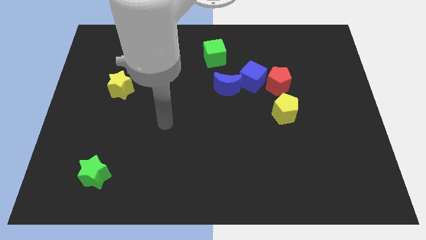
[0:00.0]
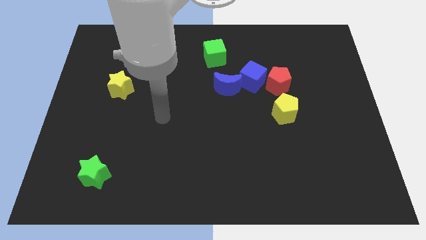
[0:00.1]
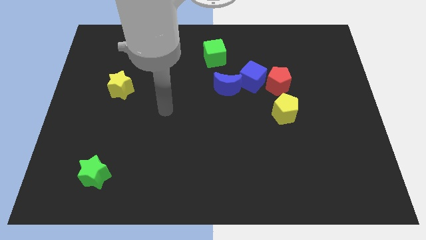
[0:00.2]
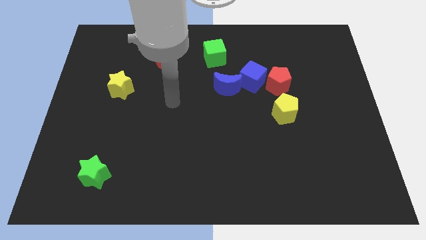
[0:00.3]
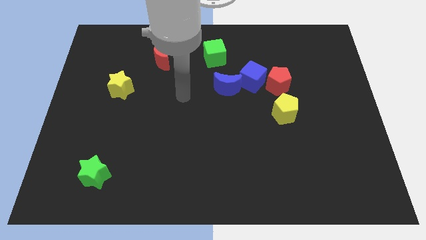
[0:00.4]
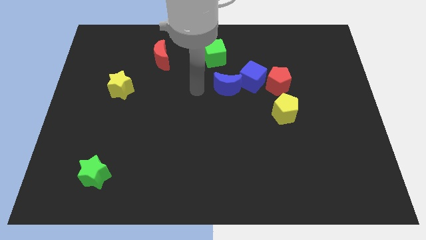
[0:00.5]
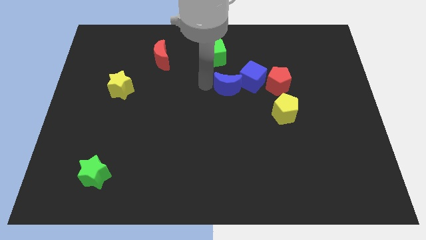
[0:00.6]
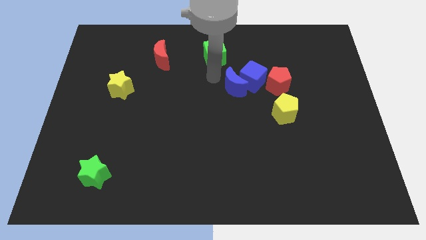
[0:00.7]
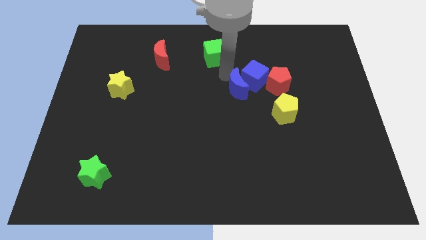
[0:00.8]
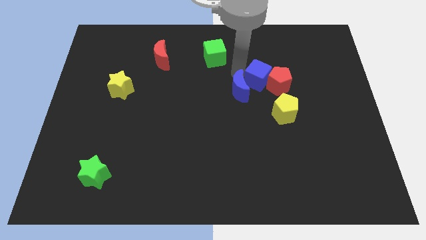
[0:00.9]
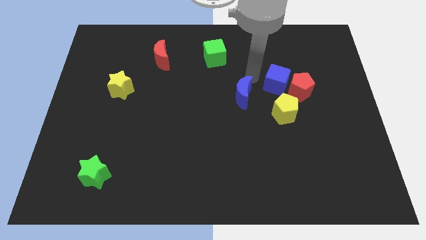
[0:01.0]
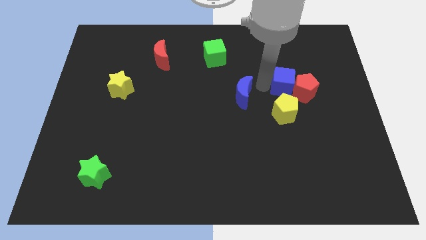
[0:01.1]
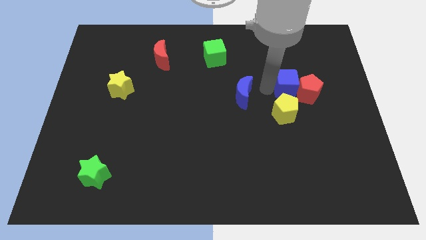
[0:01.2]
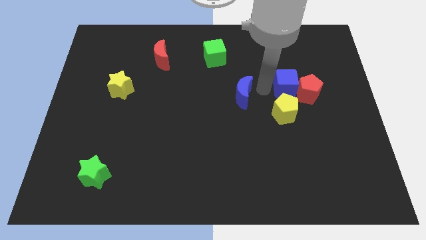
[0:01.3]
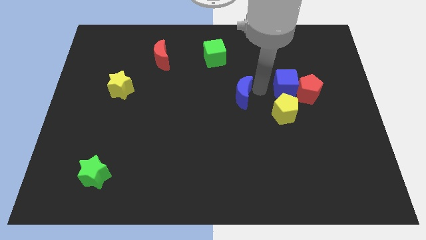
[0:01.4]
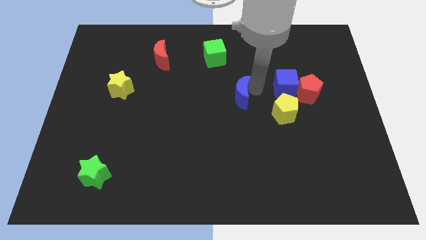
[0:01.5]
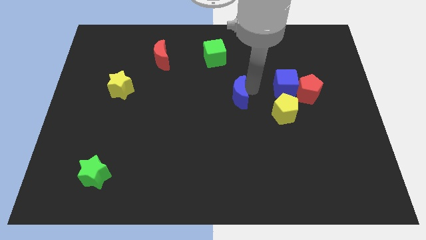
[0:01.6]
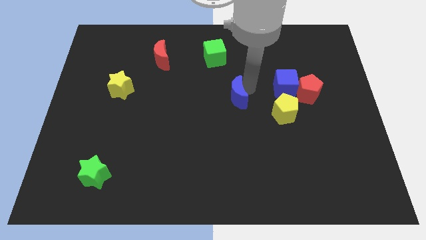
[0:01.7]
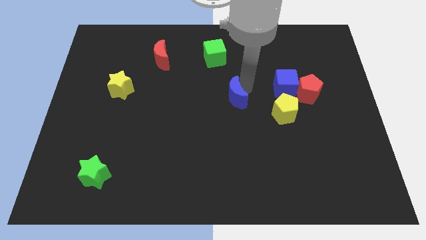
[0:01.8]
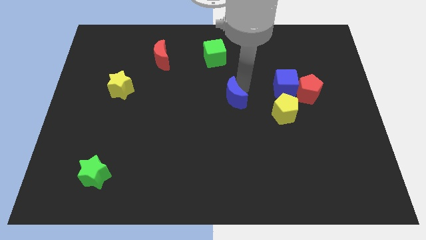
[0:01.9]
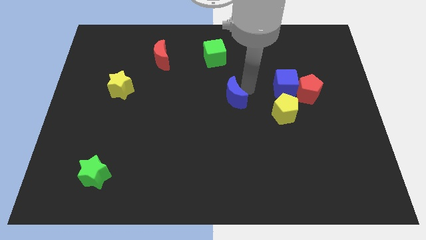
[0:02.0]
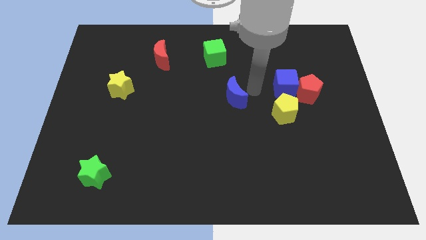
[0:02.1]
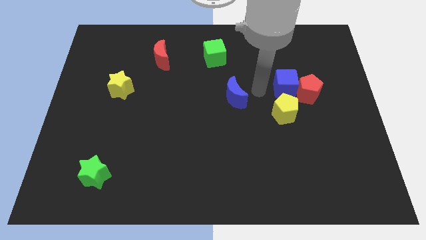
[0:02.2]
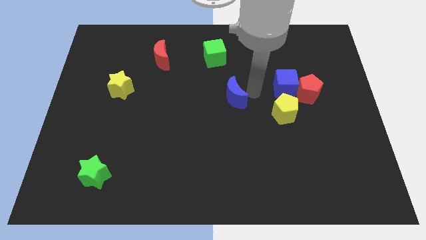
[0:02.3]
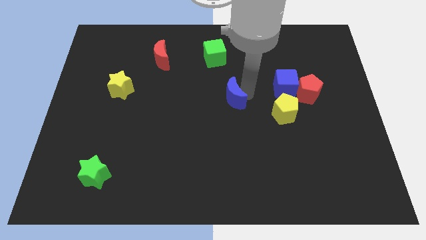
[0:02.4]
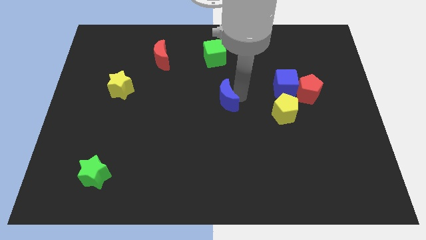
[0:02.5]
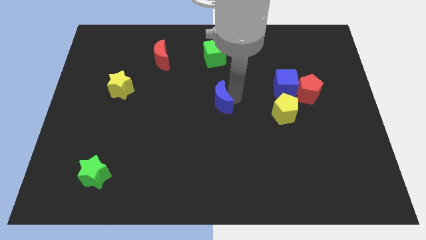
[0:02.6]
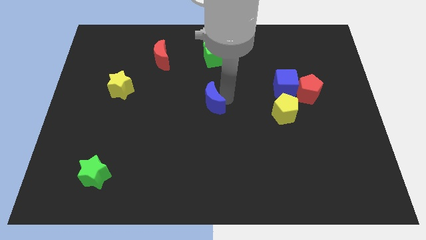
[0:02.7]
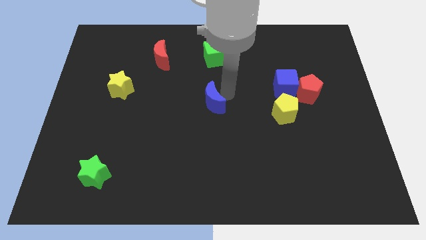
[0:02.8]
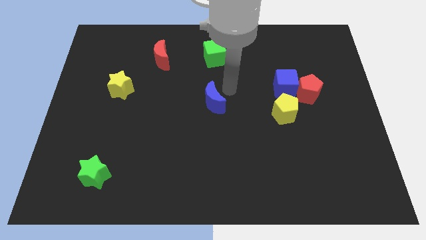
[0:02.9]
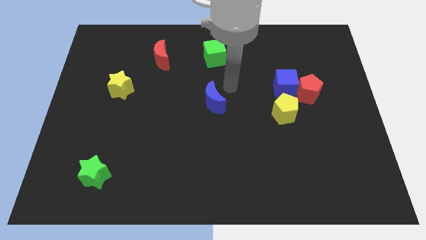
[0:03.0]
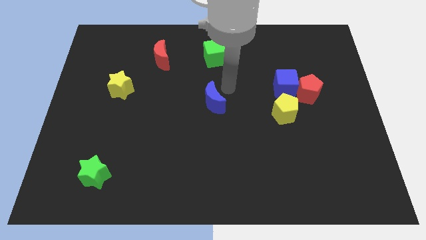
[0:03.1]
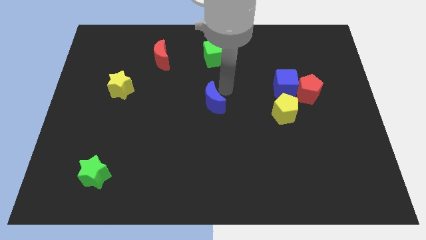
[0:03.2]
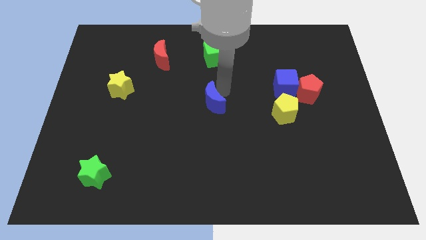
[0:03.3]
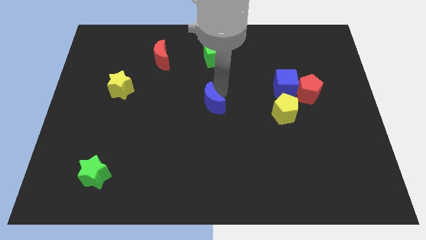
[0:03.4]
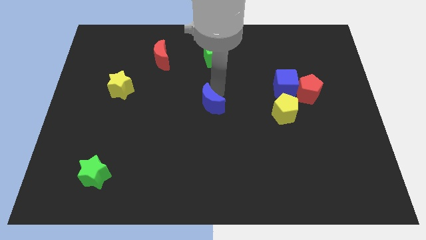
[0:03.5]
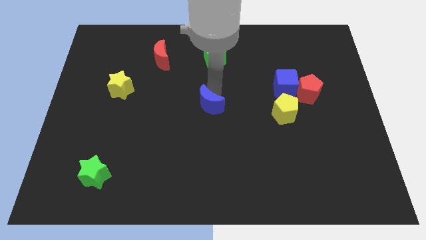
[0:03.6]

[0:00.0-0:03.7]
move the blue moon downwards and left diagonally a little

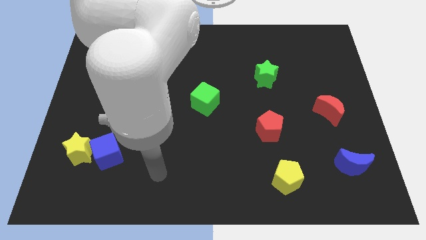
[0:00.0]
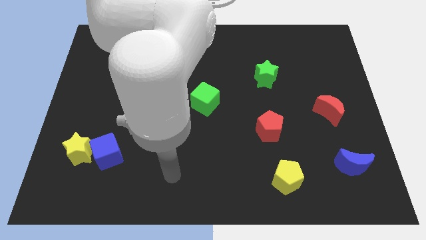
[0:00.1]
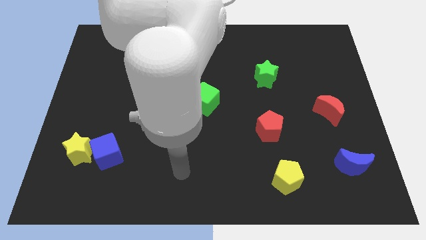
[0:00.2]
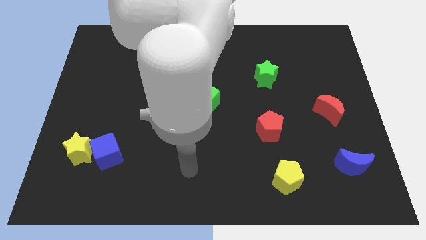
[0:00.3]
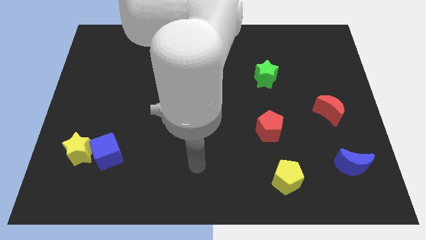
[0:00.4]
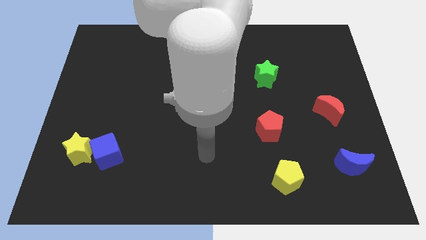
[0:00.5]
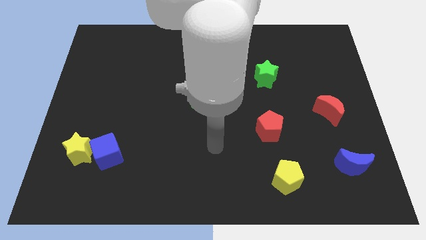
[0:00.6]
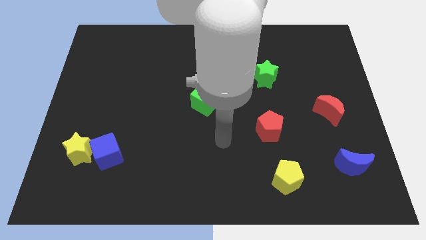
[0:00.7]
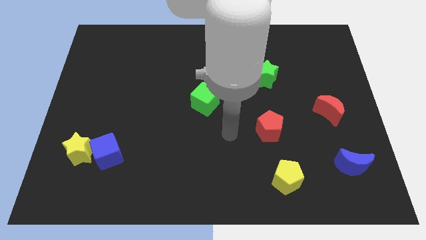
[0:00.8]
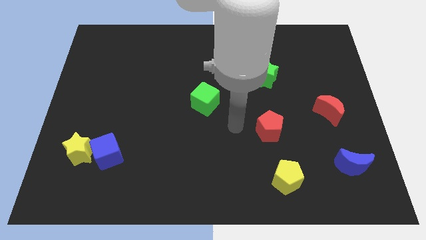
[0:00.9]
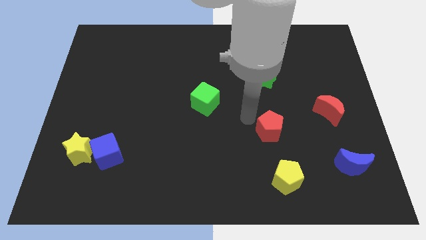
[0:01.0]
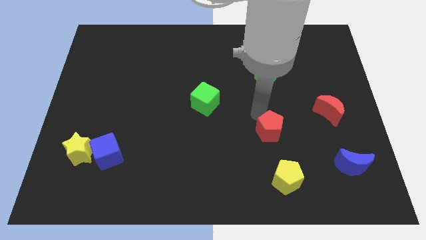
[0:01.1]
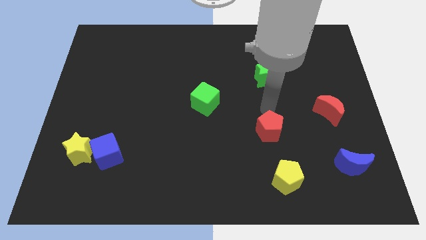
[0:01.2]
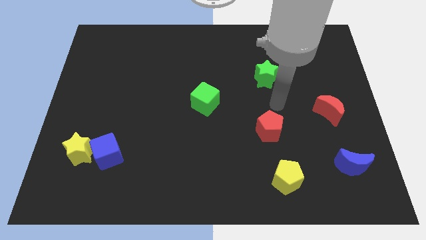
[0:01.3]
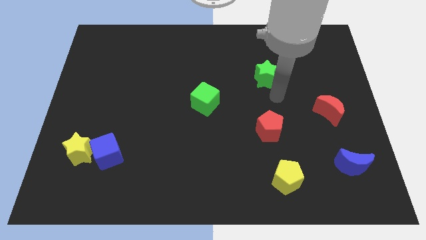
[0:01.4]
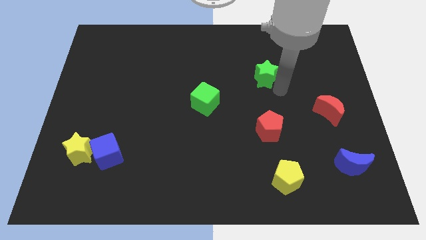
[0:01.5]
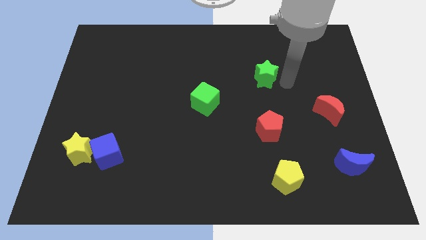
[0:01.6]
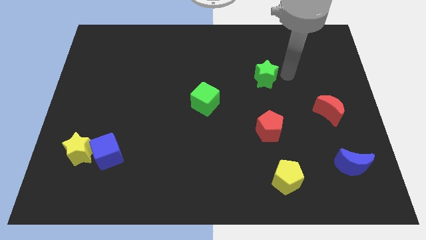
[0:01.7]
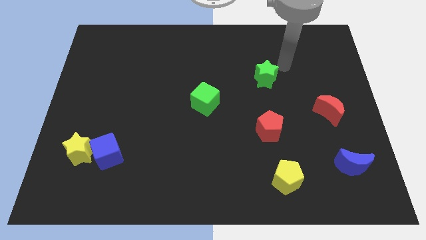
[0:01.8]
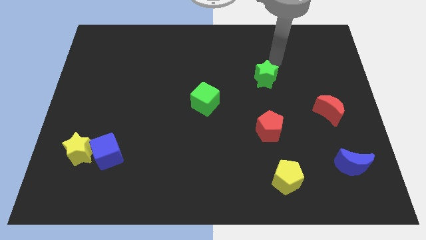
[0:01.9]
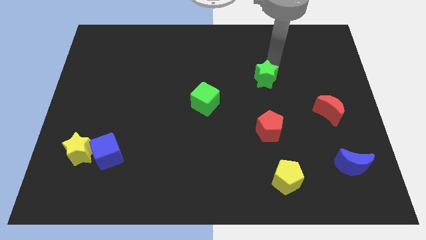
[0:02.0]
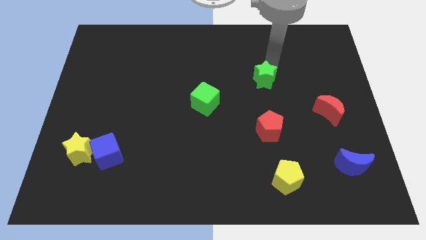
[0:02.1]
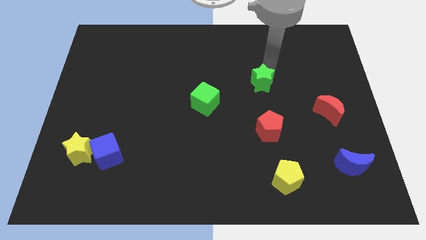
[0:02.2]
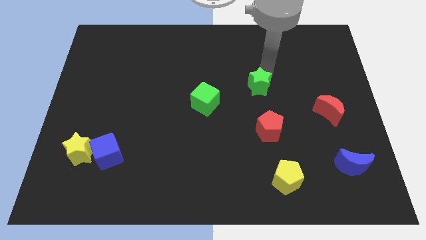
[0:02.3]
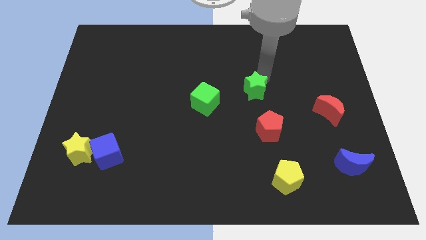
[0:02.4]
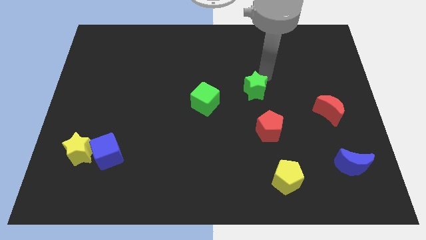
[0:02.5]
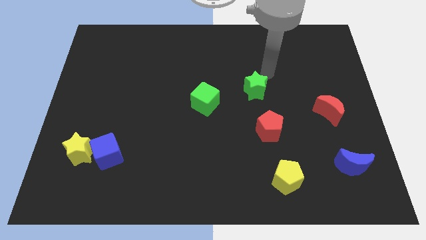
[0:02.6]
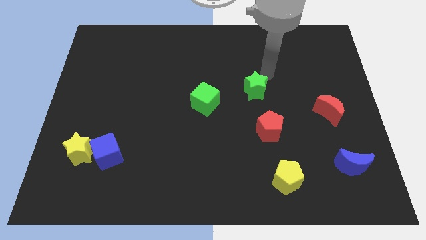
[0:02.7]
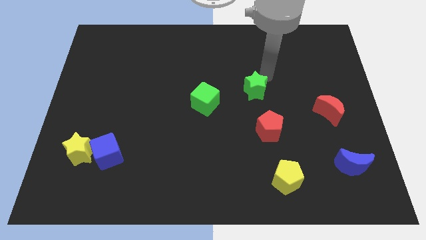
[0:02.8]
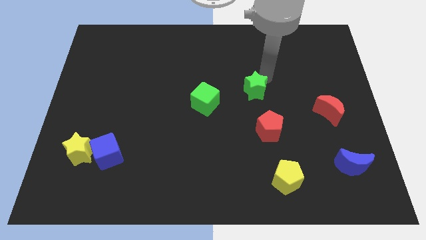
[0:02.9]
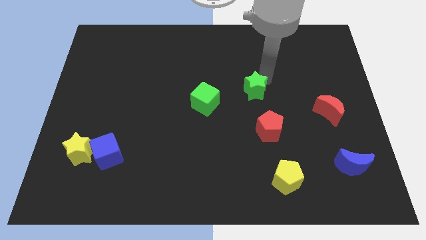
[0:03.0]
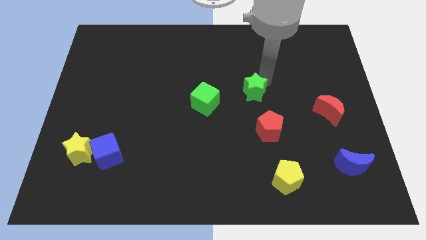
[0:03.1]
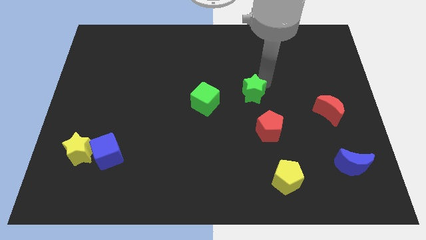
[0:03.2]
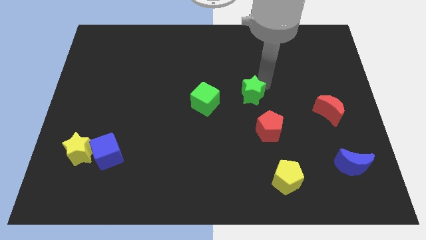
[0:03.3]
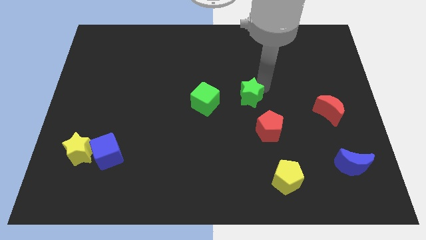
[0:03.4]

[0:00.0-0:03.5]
move the green star diagonally downwards and to the left a little bit

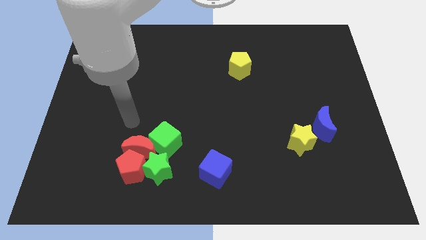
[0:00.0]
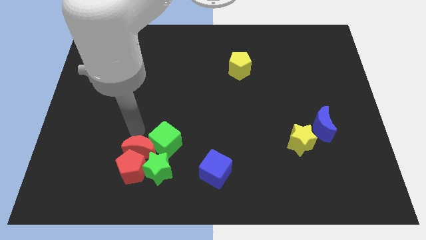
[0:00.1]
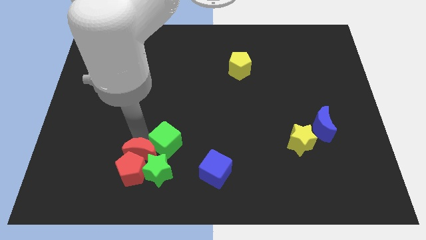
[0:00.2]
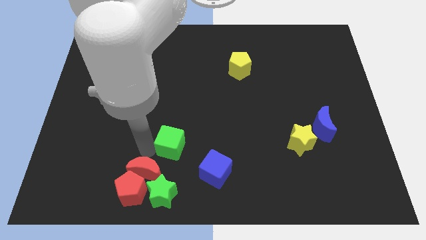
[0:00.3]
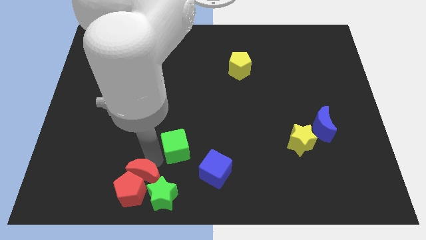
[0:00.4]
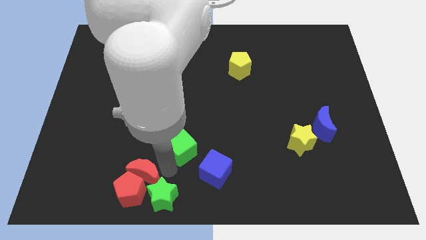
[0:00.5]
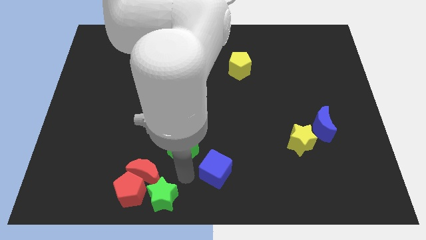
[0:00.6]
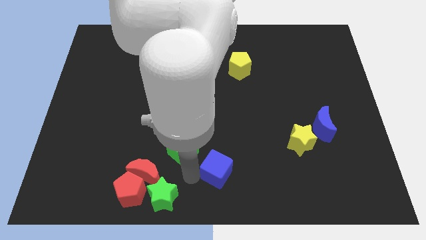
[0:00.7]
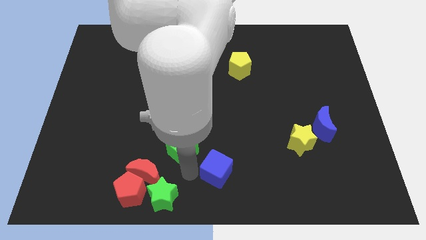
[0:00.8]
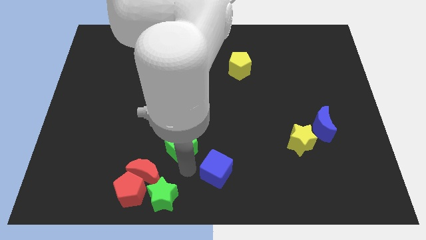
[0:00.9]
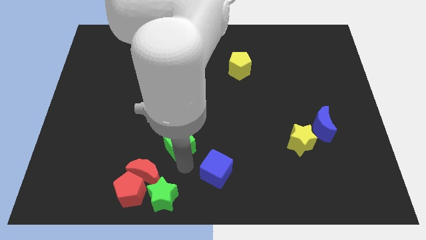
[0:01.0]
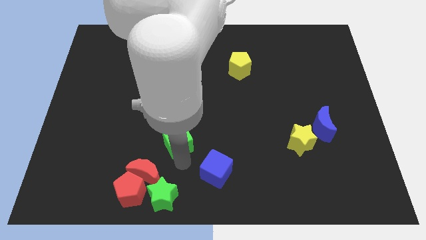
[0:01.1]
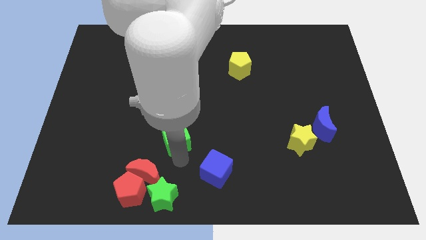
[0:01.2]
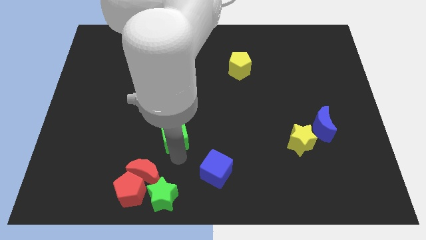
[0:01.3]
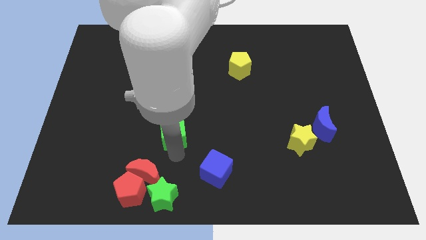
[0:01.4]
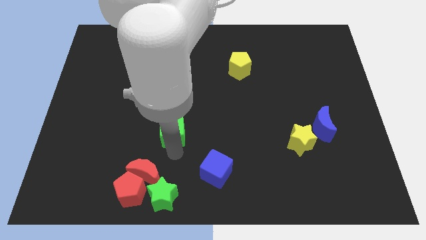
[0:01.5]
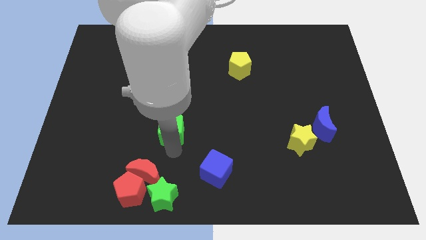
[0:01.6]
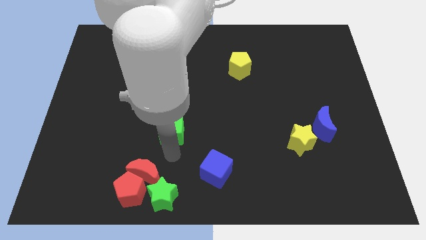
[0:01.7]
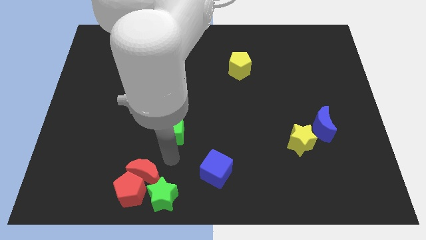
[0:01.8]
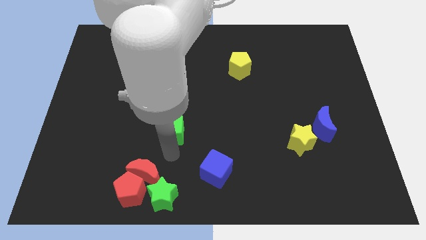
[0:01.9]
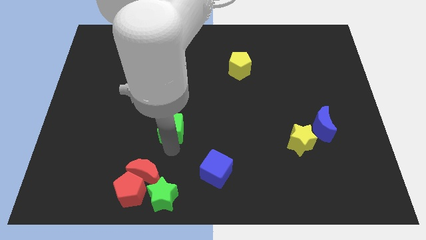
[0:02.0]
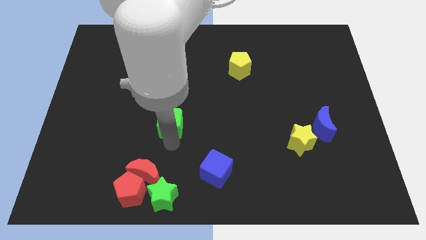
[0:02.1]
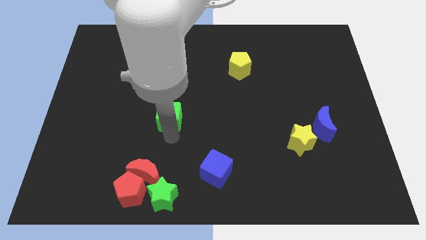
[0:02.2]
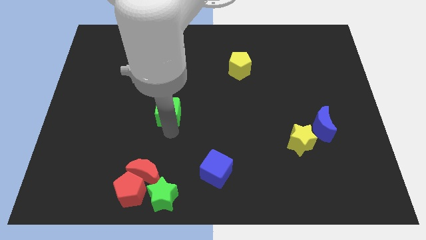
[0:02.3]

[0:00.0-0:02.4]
slide the green cube a little bit upwards
